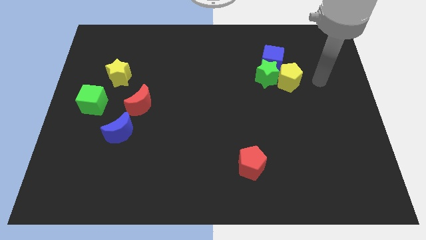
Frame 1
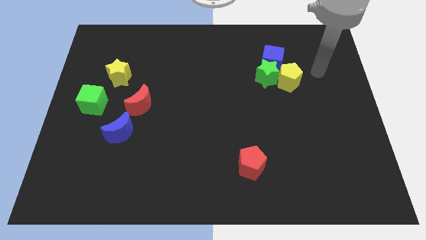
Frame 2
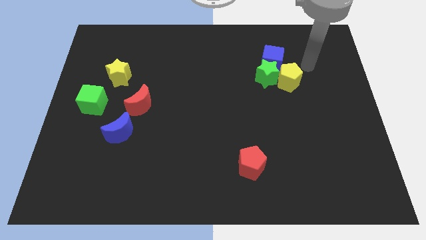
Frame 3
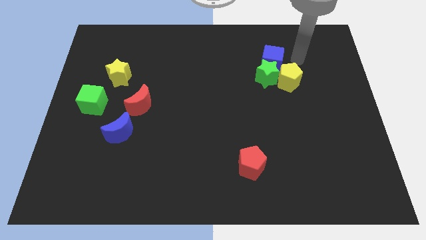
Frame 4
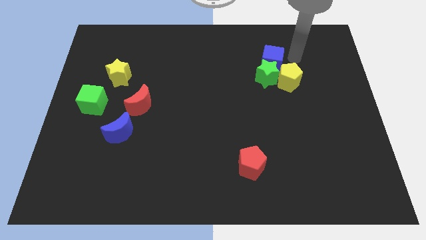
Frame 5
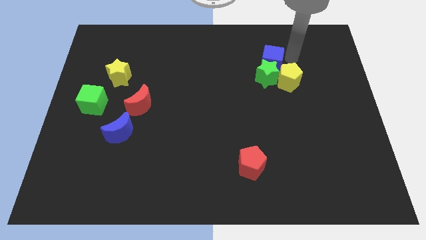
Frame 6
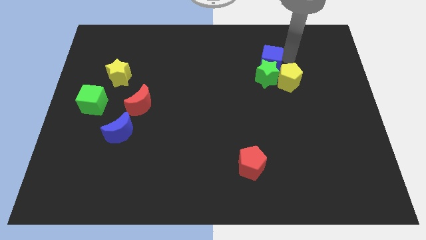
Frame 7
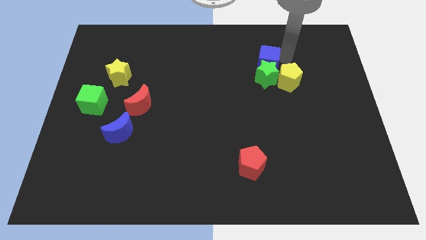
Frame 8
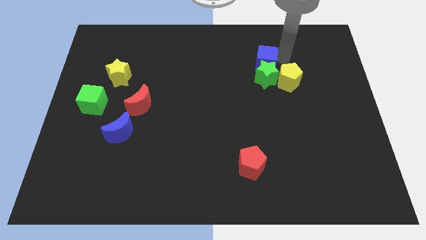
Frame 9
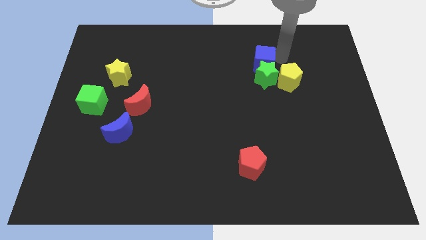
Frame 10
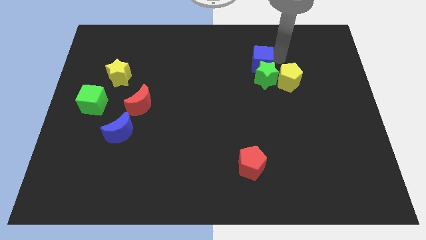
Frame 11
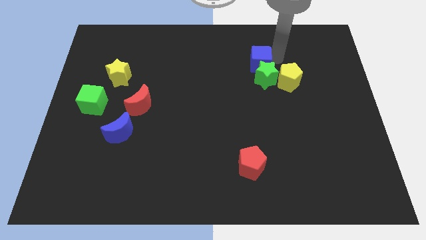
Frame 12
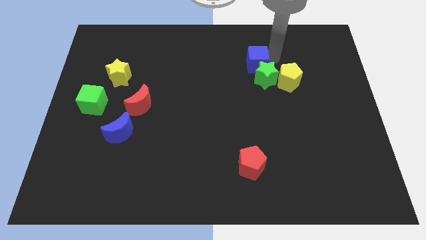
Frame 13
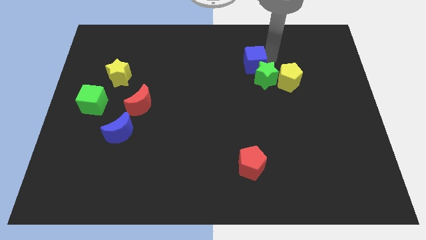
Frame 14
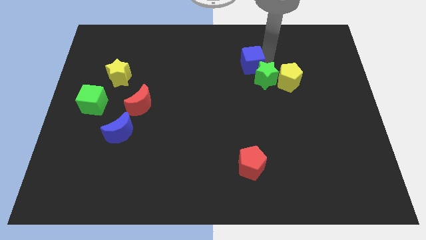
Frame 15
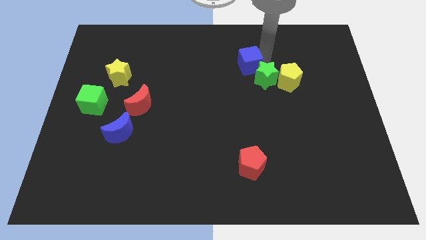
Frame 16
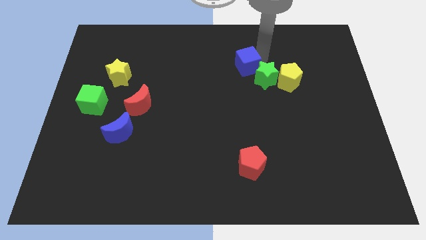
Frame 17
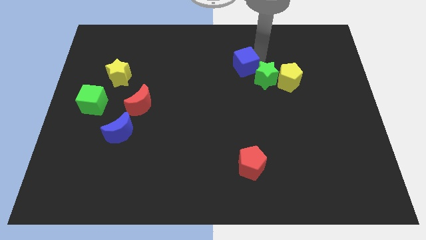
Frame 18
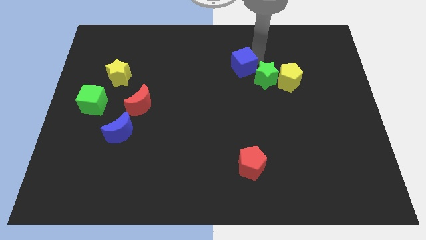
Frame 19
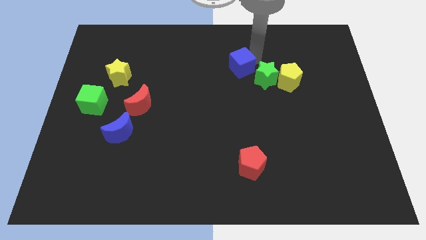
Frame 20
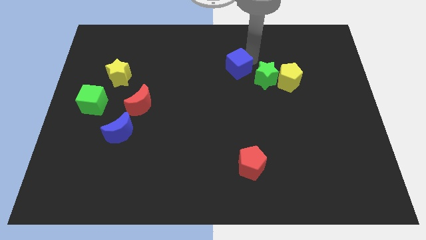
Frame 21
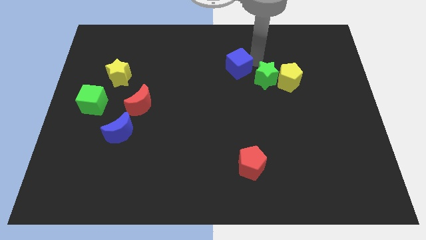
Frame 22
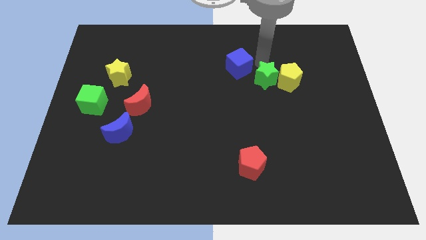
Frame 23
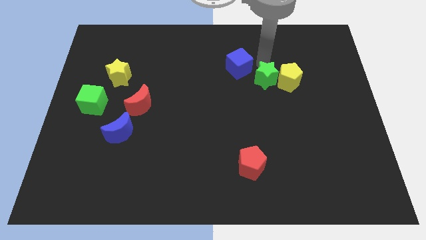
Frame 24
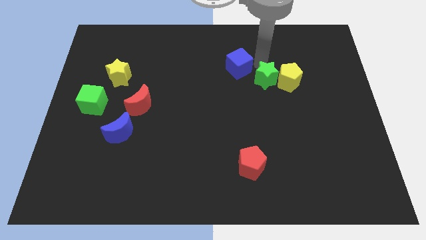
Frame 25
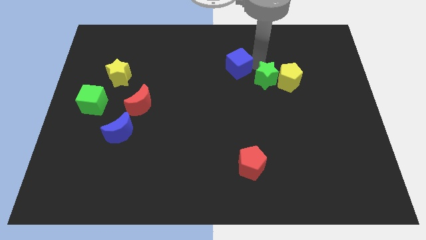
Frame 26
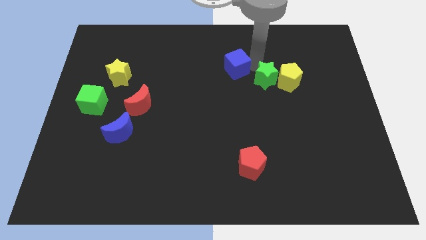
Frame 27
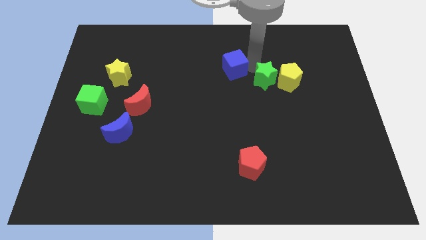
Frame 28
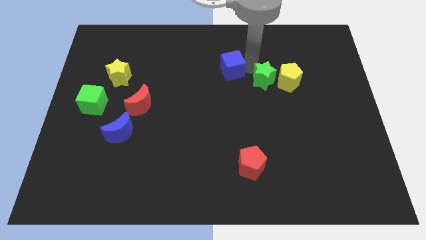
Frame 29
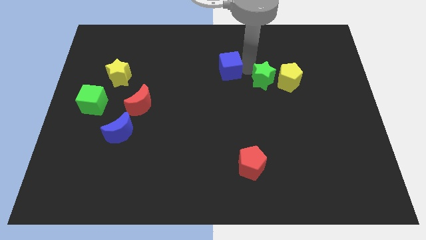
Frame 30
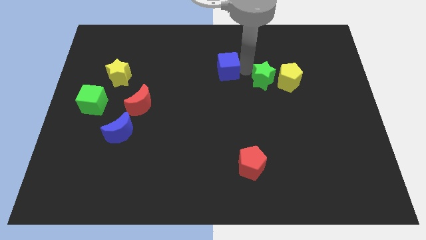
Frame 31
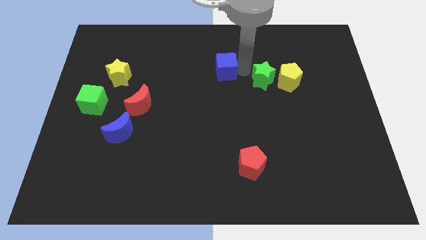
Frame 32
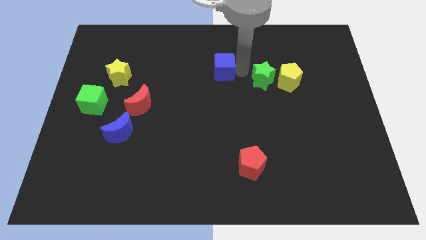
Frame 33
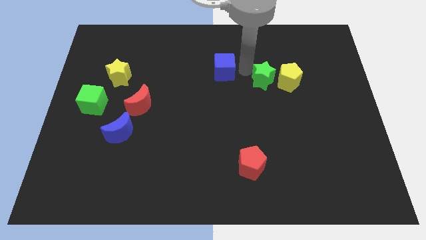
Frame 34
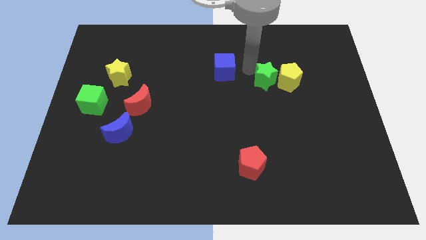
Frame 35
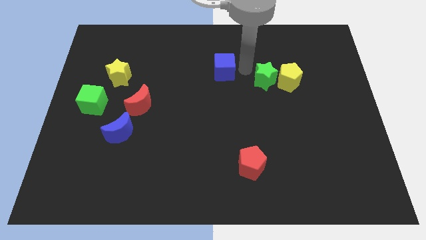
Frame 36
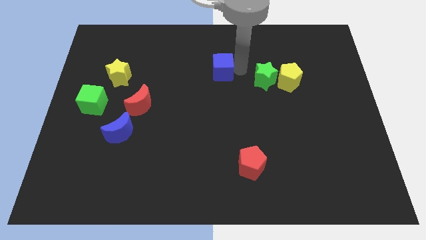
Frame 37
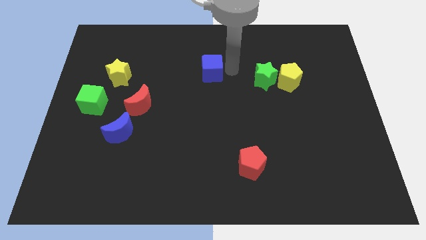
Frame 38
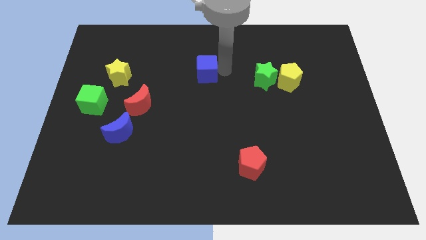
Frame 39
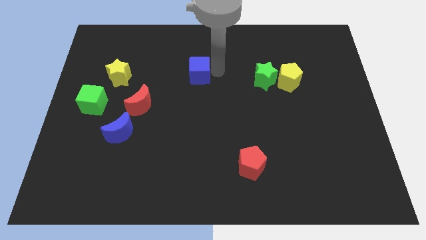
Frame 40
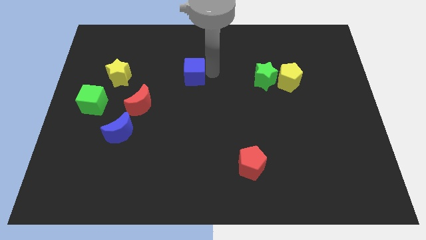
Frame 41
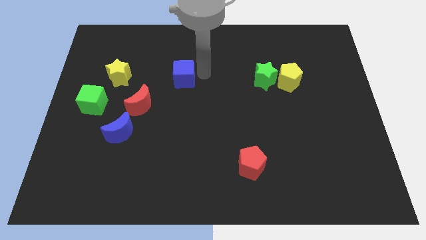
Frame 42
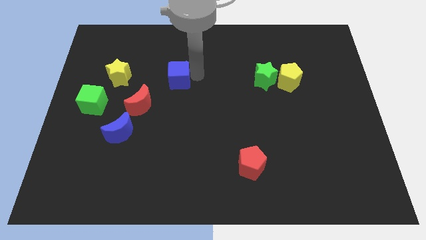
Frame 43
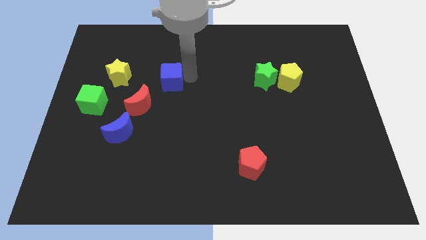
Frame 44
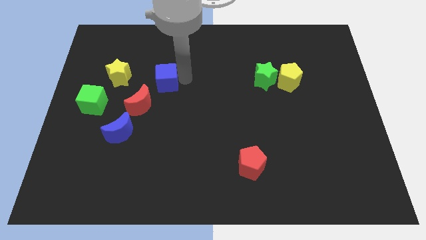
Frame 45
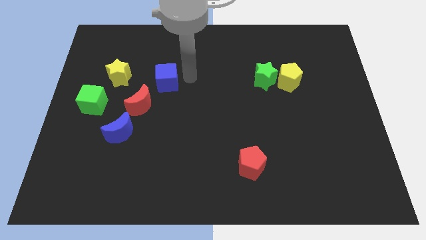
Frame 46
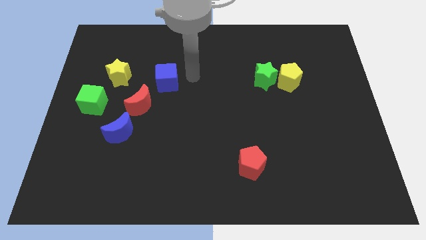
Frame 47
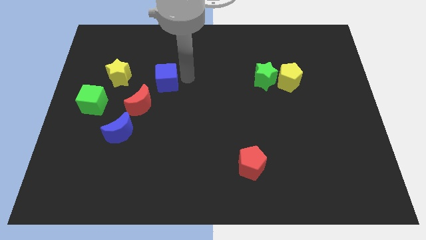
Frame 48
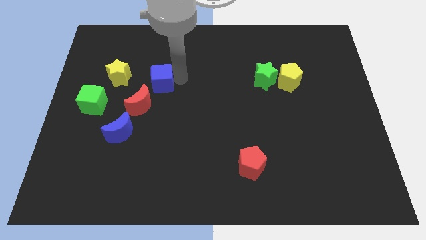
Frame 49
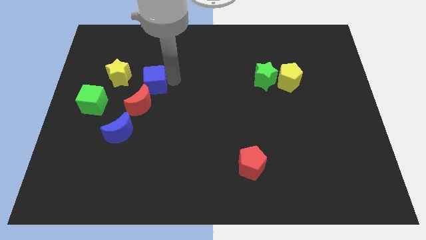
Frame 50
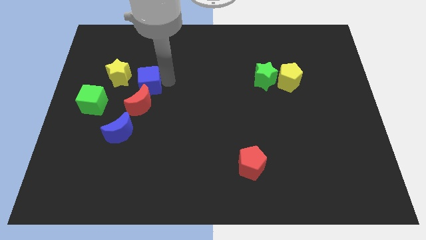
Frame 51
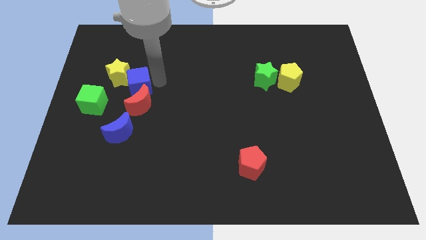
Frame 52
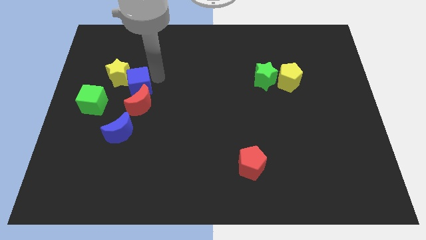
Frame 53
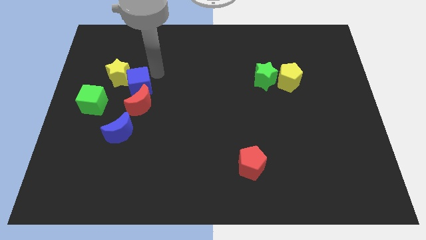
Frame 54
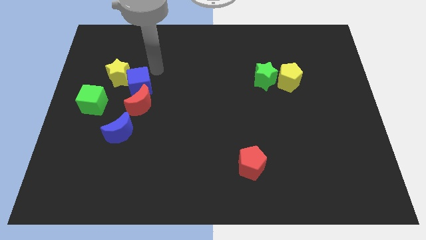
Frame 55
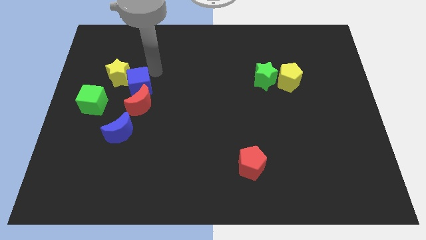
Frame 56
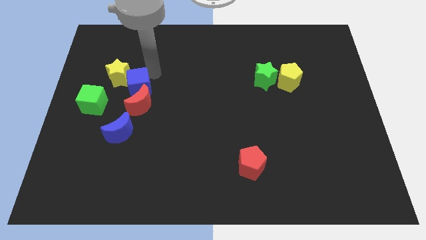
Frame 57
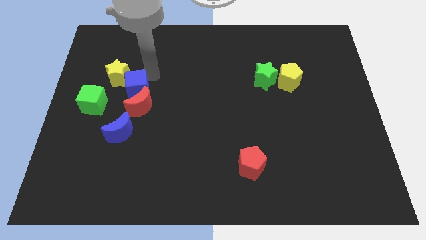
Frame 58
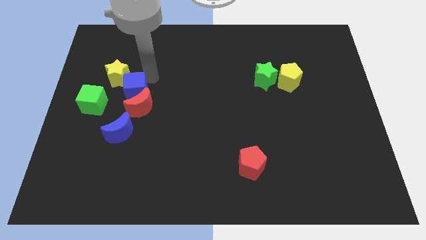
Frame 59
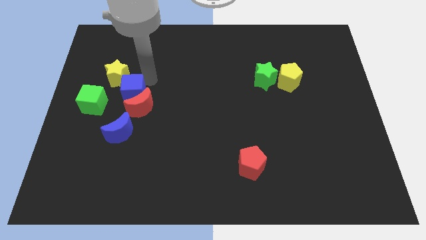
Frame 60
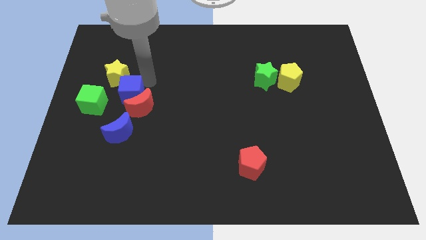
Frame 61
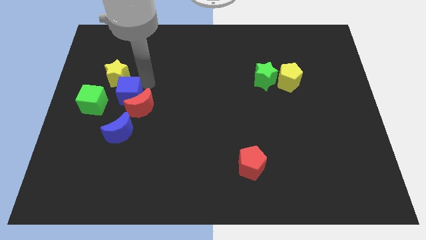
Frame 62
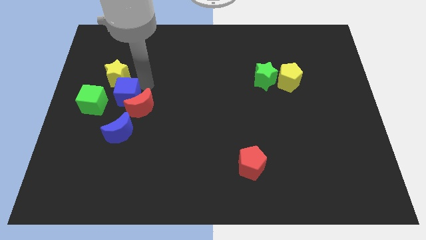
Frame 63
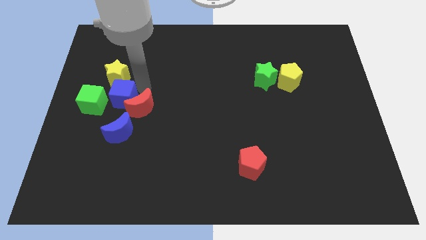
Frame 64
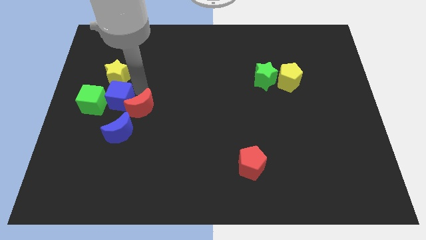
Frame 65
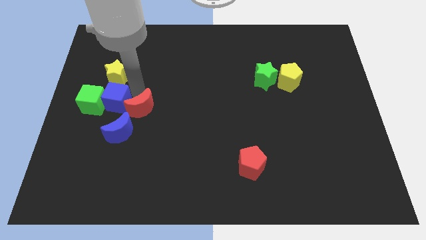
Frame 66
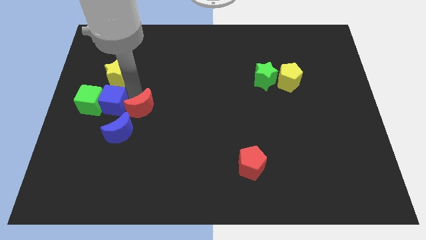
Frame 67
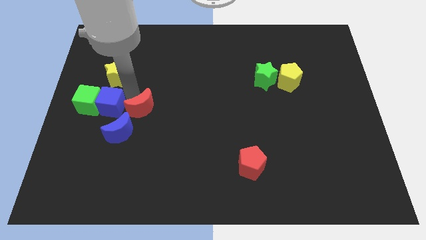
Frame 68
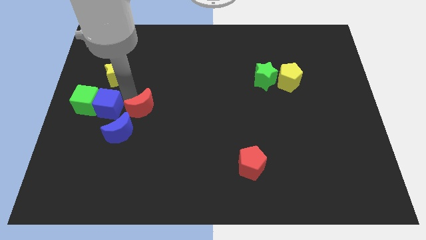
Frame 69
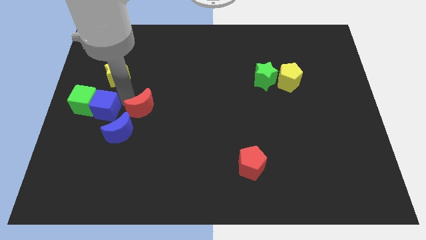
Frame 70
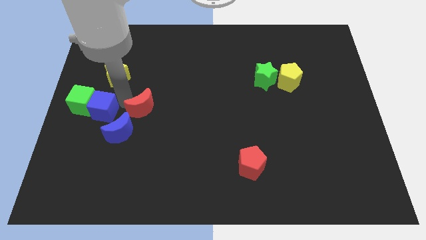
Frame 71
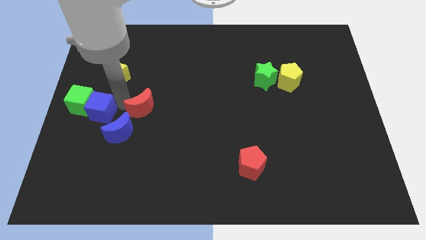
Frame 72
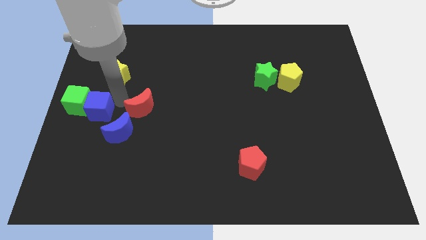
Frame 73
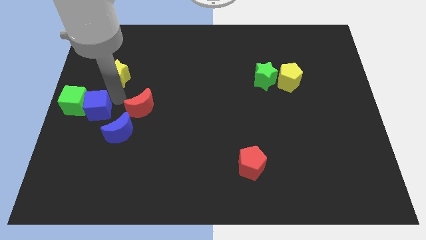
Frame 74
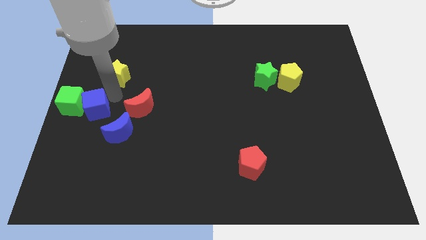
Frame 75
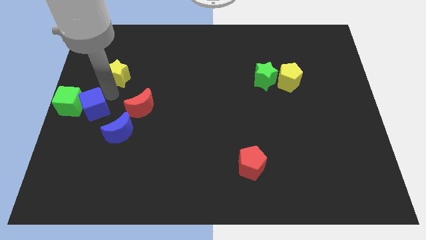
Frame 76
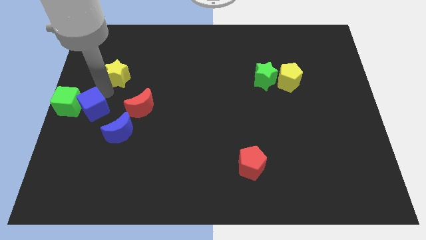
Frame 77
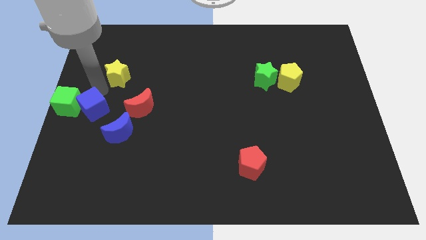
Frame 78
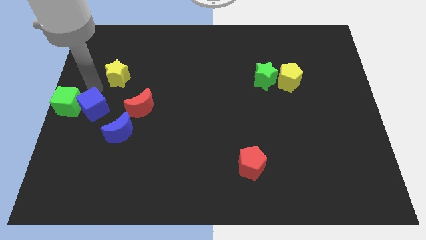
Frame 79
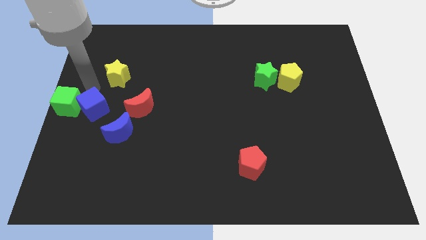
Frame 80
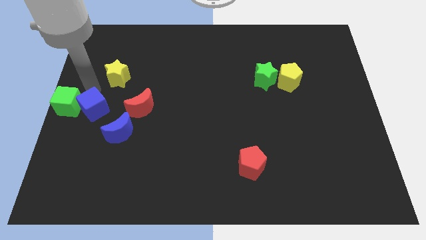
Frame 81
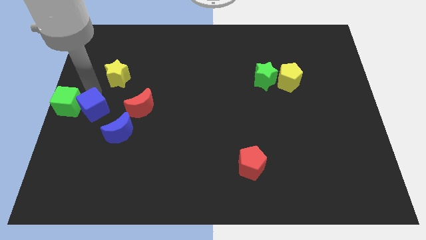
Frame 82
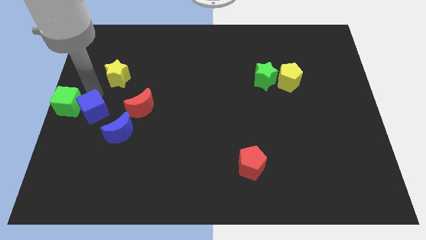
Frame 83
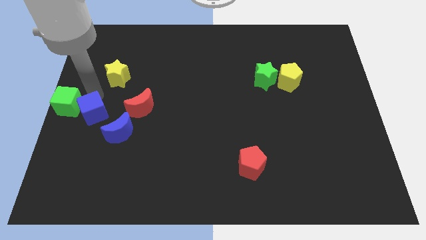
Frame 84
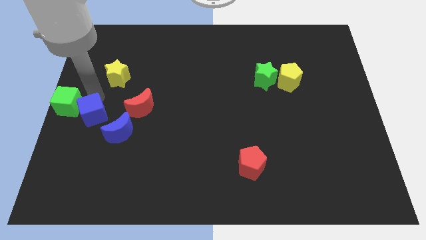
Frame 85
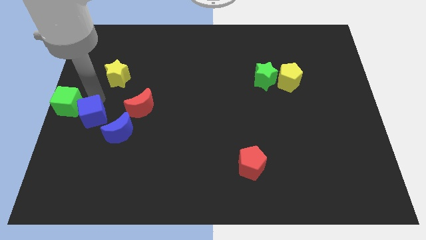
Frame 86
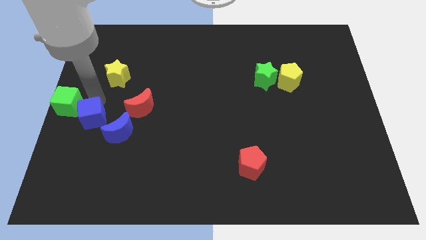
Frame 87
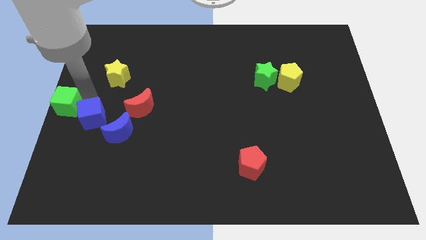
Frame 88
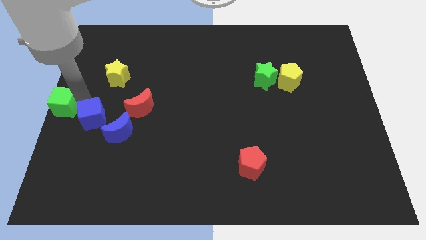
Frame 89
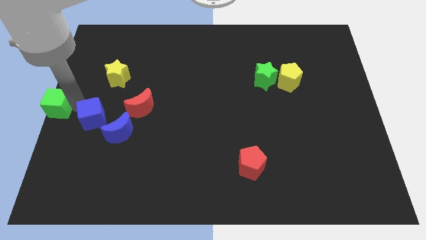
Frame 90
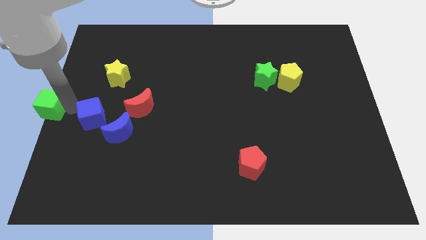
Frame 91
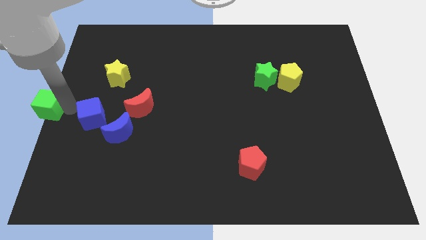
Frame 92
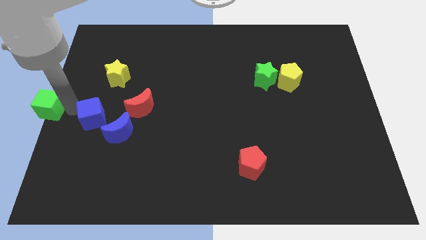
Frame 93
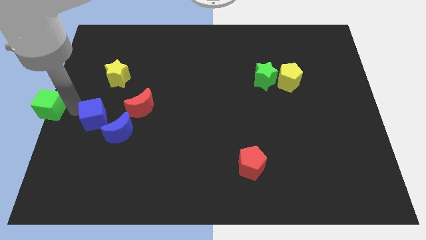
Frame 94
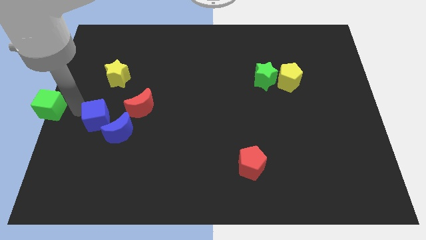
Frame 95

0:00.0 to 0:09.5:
slide the blue cube diagonally down and to the left of the red moon
